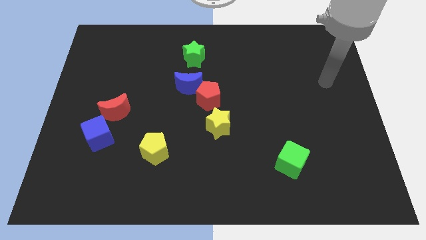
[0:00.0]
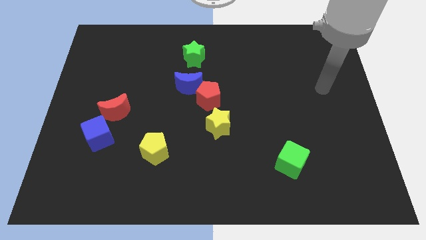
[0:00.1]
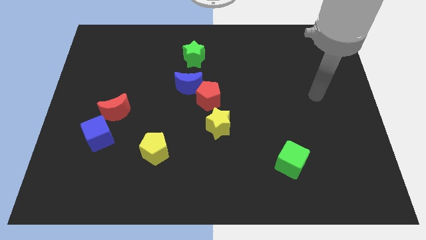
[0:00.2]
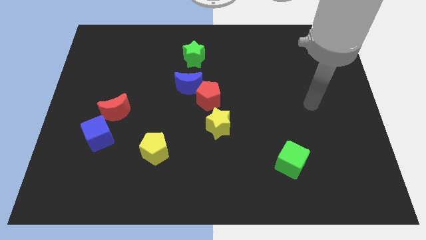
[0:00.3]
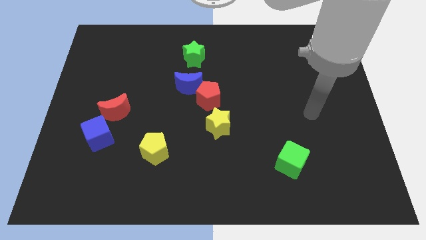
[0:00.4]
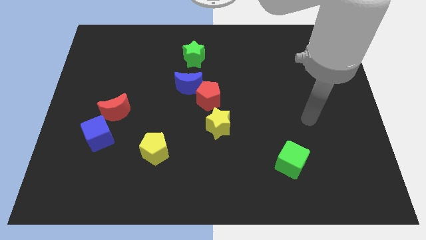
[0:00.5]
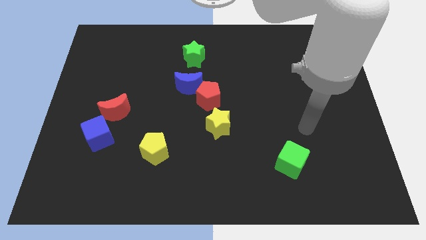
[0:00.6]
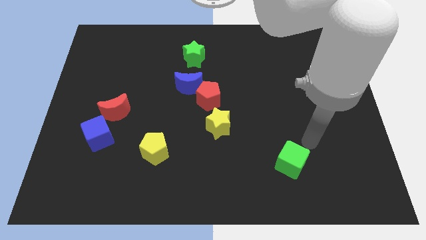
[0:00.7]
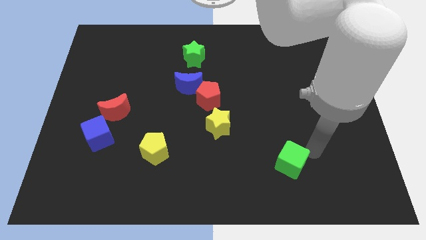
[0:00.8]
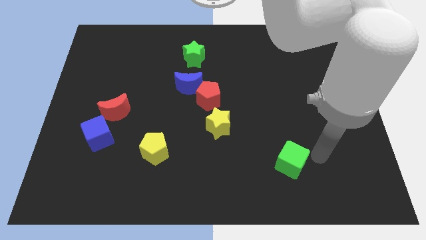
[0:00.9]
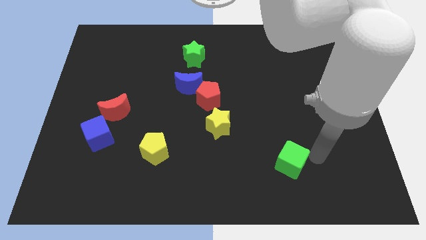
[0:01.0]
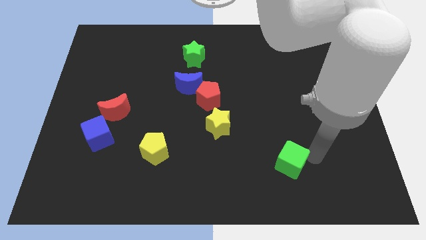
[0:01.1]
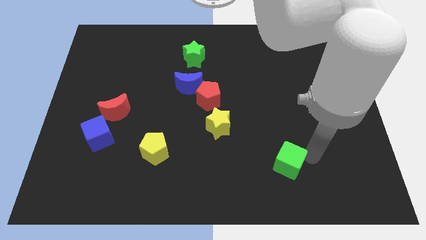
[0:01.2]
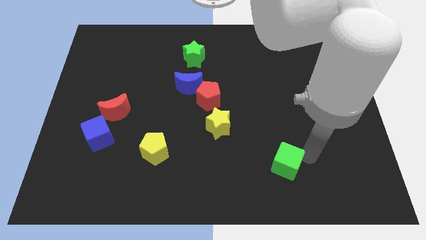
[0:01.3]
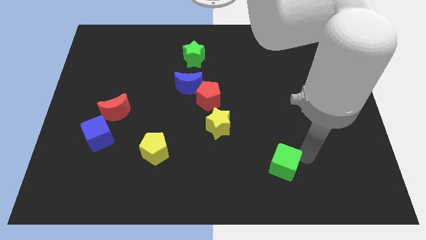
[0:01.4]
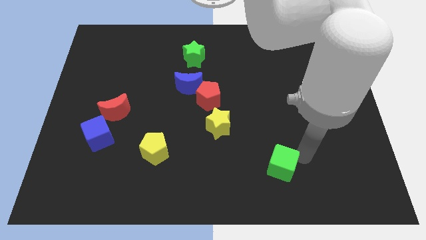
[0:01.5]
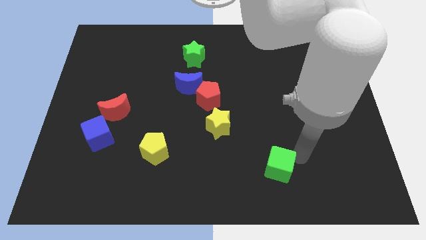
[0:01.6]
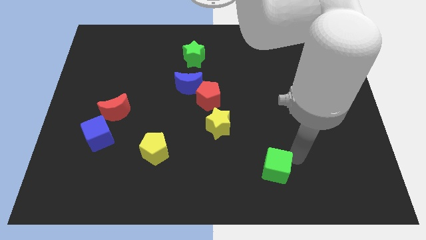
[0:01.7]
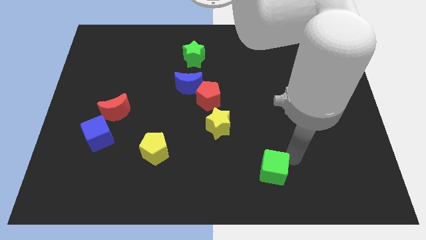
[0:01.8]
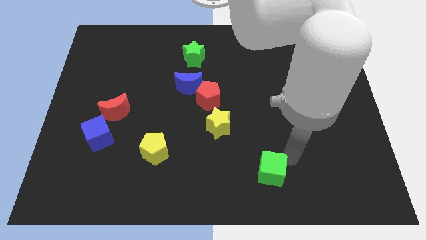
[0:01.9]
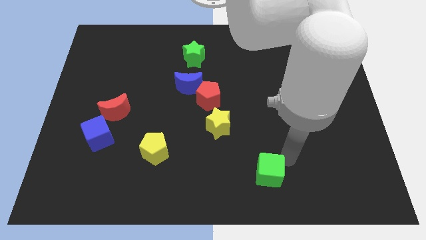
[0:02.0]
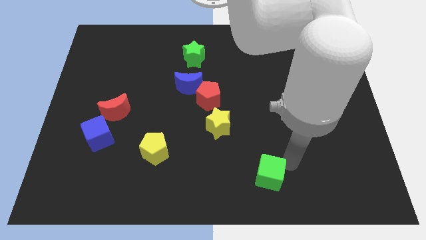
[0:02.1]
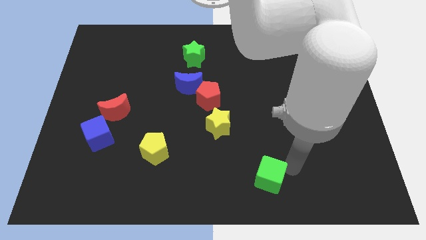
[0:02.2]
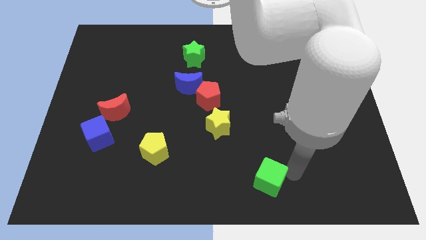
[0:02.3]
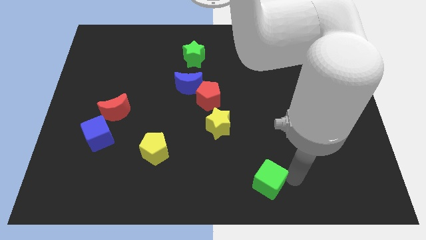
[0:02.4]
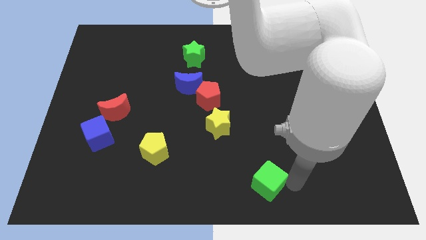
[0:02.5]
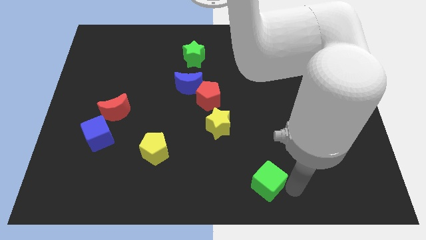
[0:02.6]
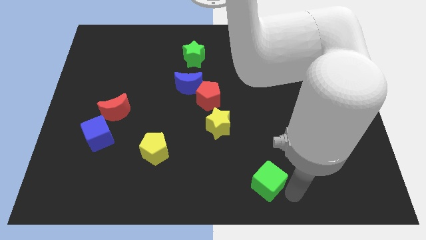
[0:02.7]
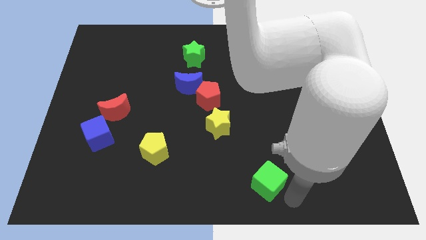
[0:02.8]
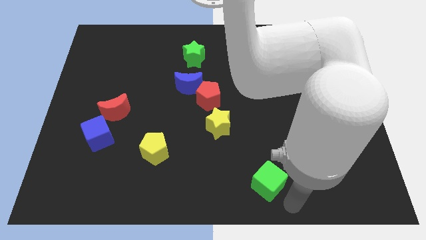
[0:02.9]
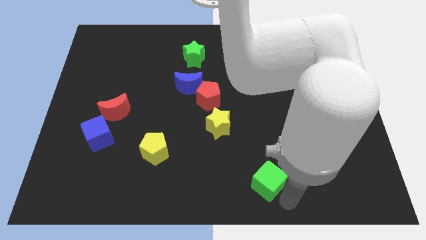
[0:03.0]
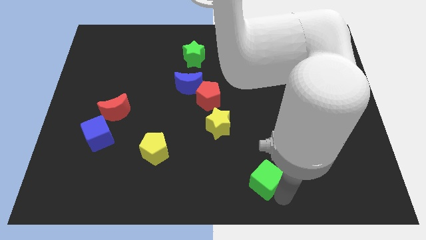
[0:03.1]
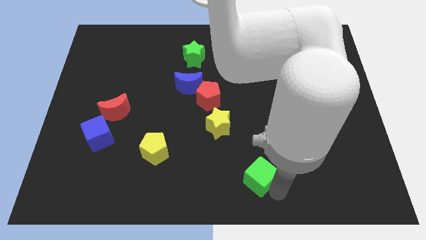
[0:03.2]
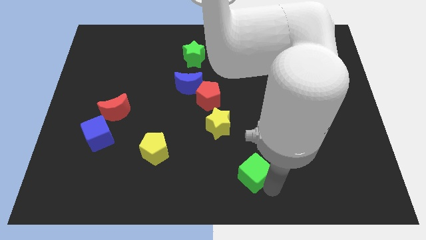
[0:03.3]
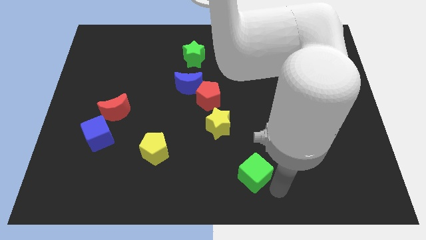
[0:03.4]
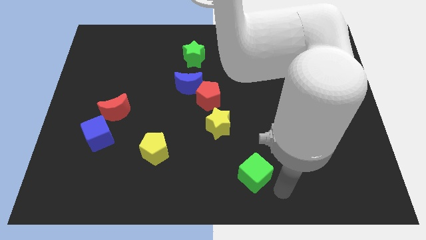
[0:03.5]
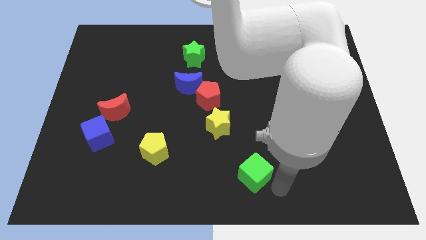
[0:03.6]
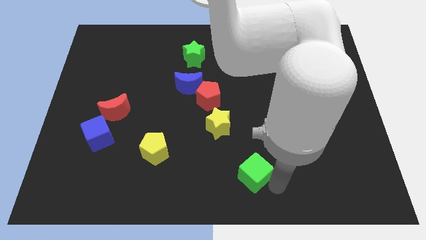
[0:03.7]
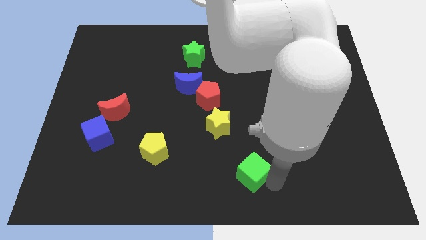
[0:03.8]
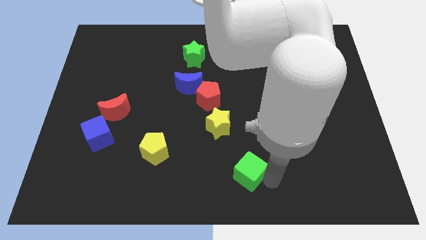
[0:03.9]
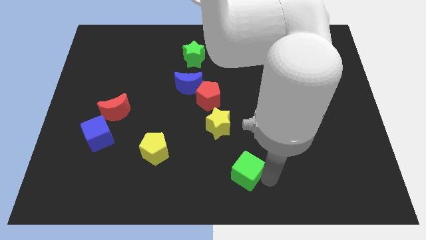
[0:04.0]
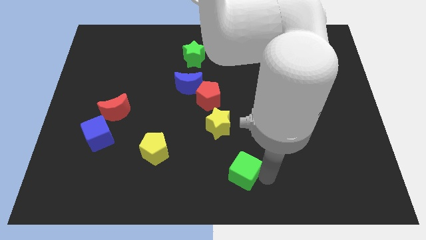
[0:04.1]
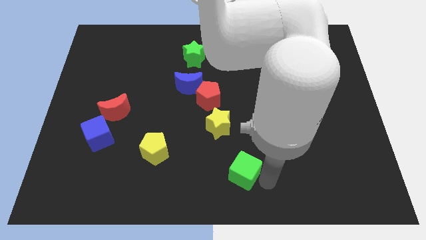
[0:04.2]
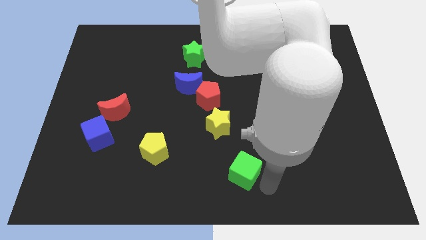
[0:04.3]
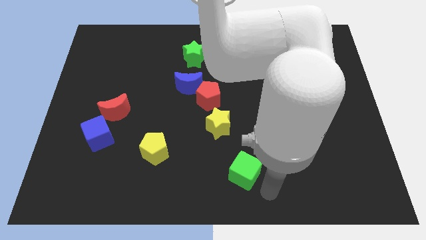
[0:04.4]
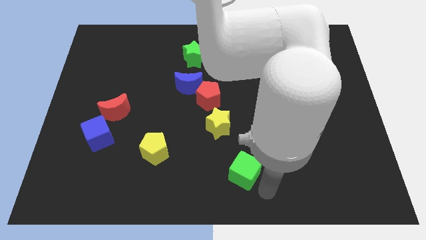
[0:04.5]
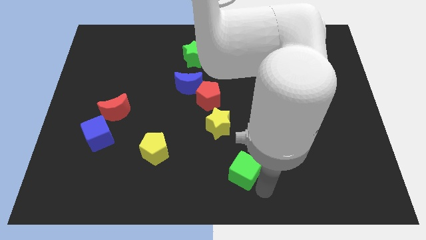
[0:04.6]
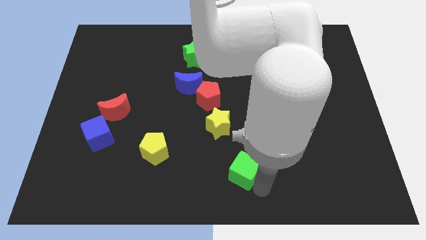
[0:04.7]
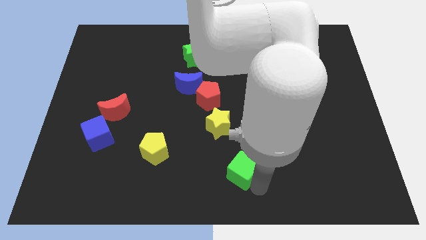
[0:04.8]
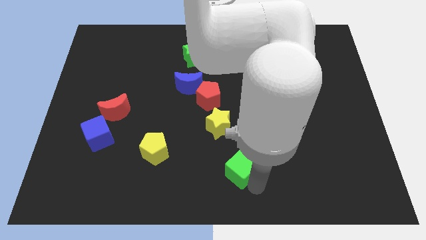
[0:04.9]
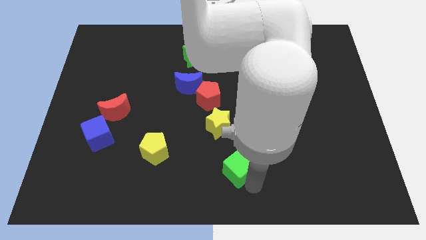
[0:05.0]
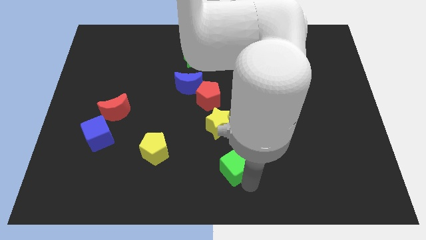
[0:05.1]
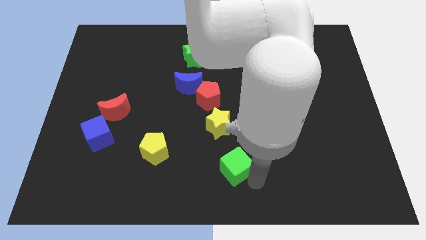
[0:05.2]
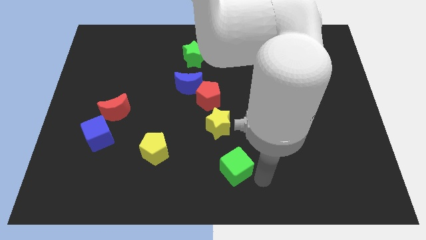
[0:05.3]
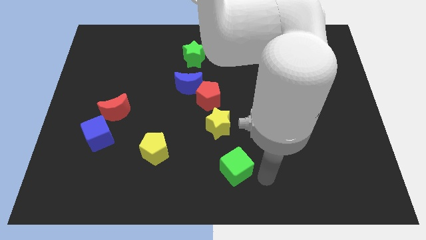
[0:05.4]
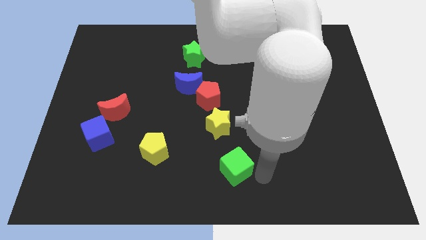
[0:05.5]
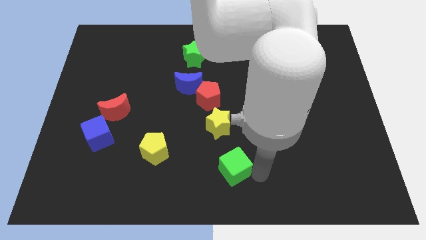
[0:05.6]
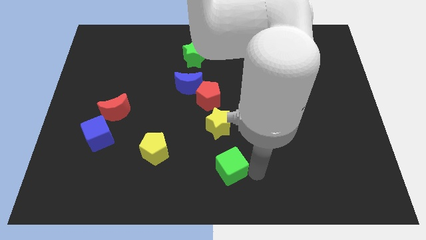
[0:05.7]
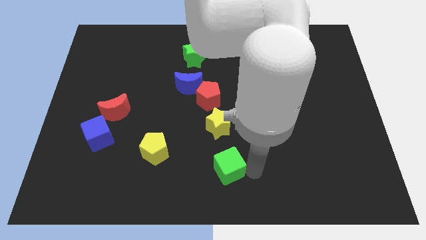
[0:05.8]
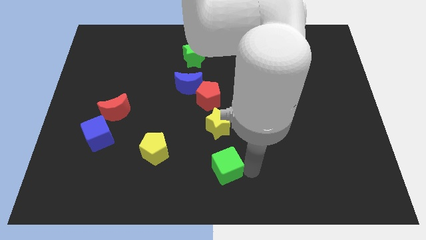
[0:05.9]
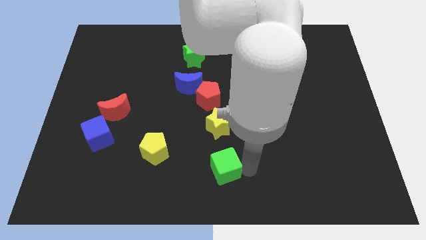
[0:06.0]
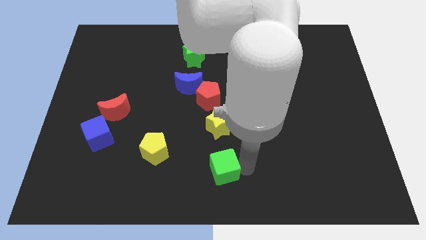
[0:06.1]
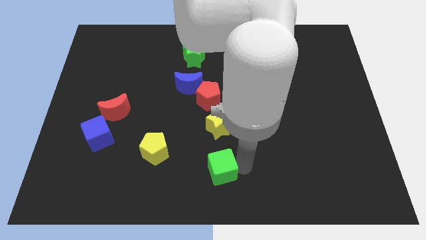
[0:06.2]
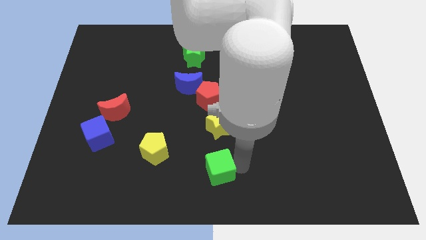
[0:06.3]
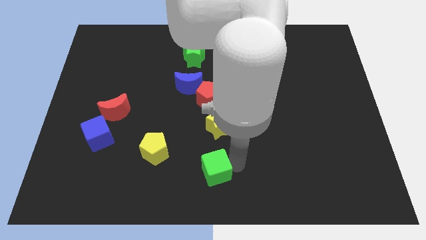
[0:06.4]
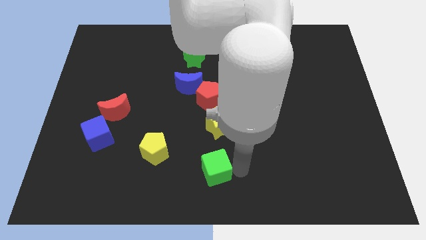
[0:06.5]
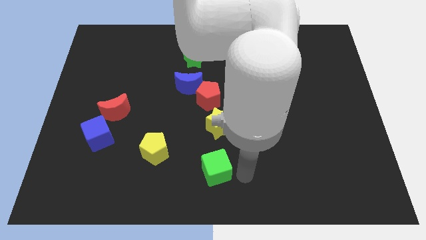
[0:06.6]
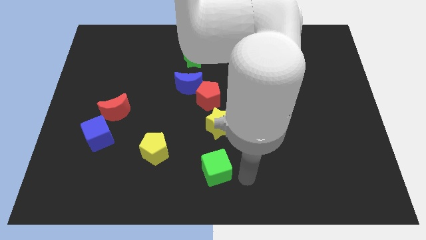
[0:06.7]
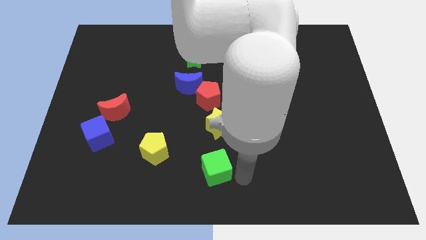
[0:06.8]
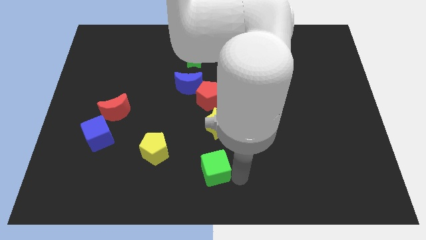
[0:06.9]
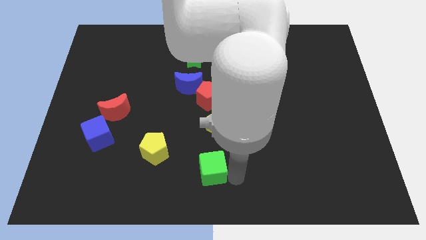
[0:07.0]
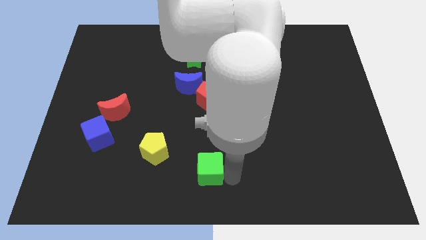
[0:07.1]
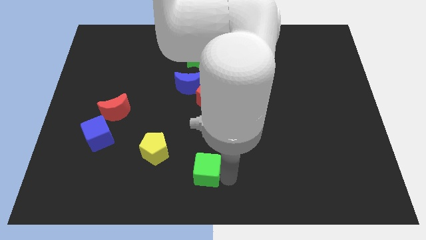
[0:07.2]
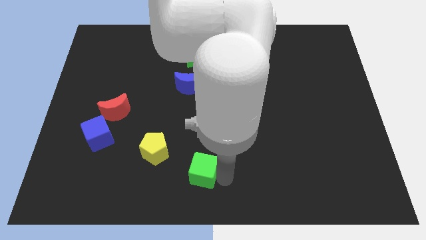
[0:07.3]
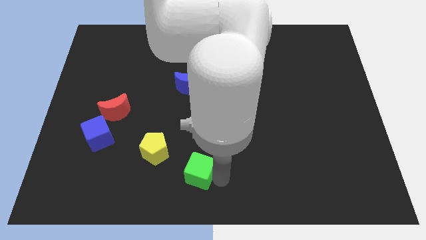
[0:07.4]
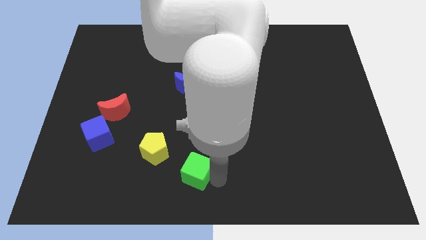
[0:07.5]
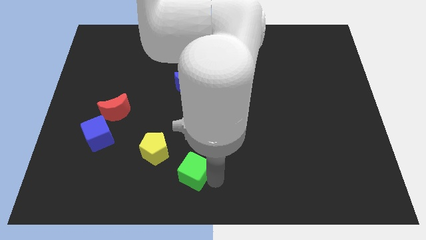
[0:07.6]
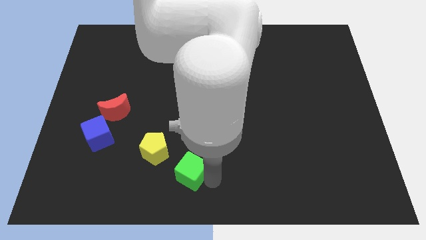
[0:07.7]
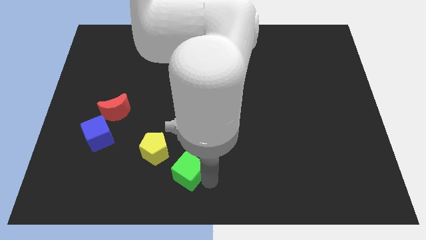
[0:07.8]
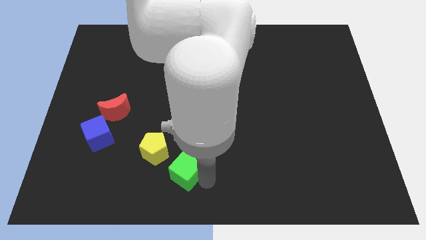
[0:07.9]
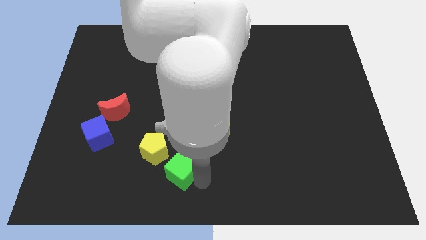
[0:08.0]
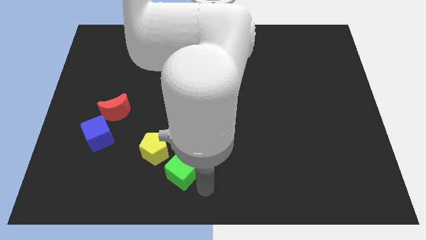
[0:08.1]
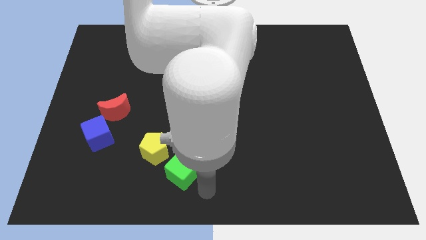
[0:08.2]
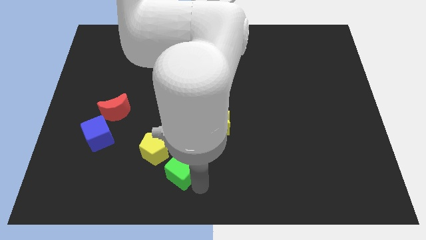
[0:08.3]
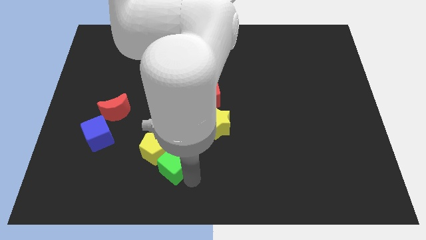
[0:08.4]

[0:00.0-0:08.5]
put the green cube close to the yellow pentagon
